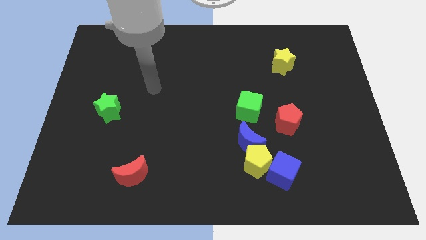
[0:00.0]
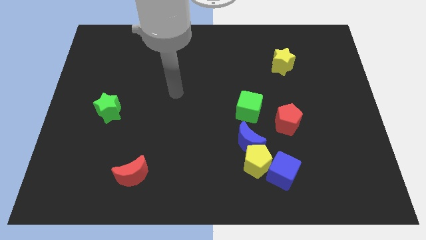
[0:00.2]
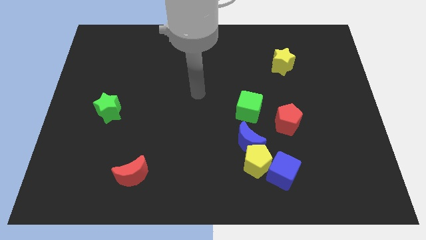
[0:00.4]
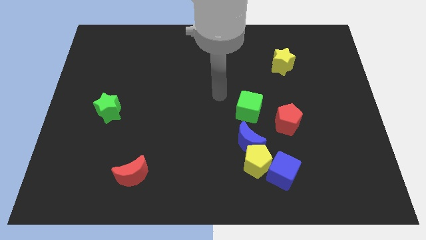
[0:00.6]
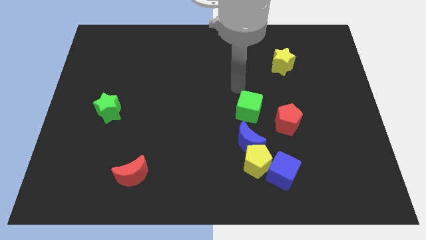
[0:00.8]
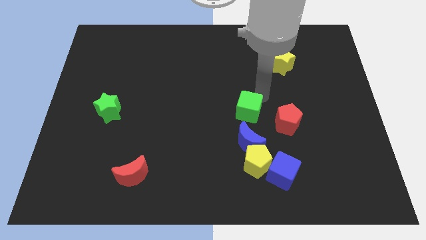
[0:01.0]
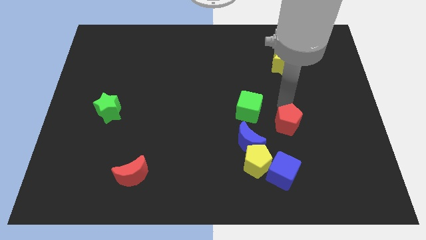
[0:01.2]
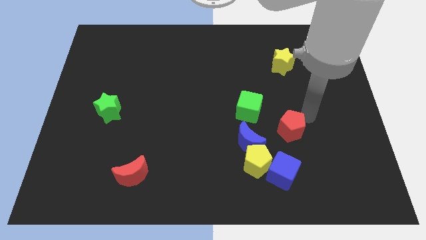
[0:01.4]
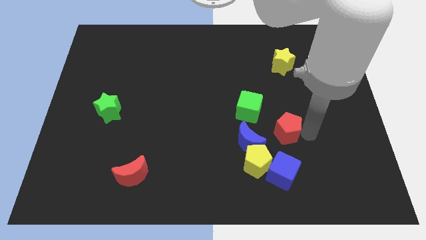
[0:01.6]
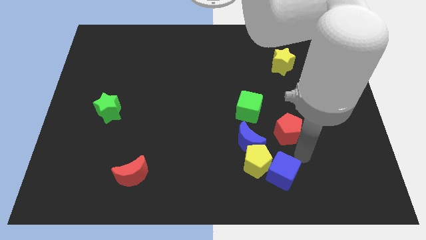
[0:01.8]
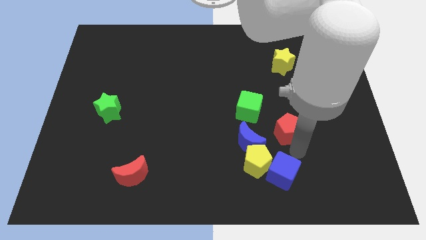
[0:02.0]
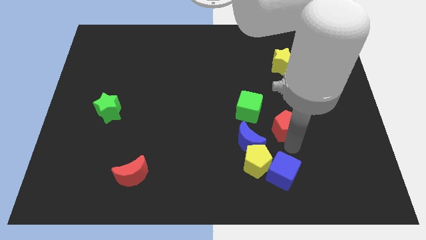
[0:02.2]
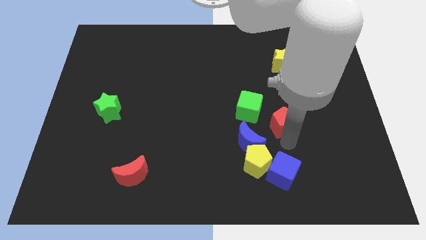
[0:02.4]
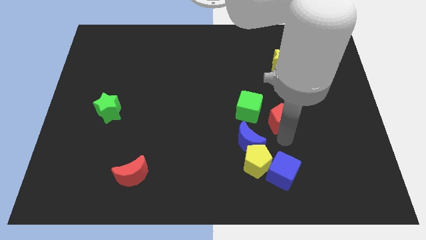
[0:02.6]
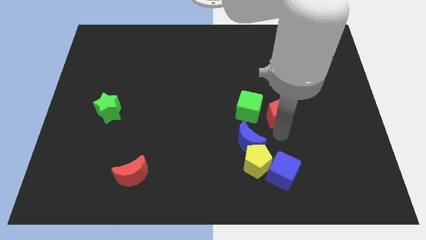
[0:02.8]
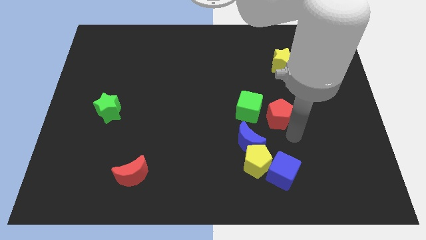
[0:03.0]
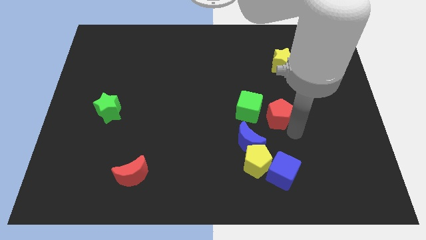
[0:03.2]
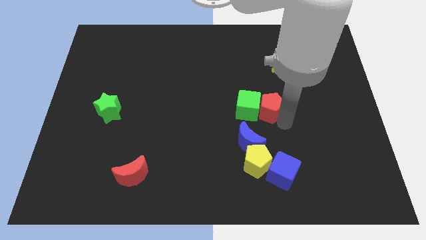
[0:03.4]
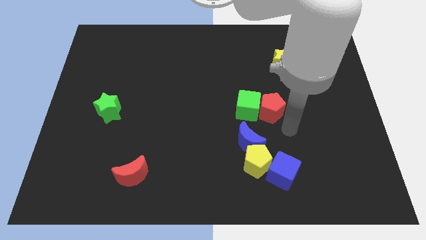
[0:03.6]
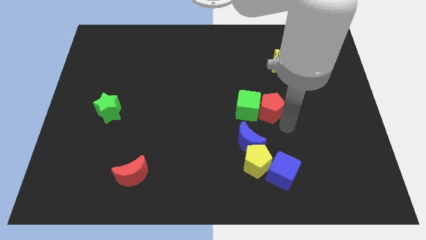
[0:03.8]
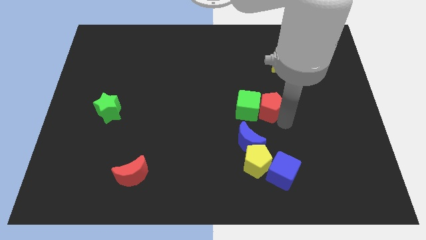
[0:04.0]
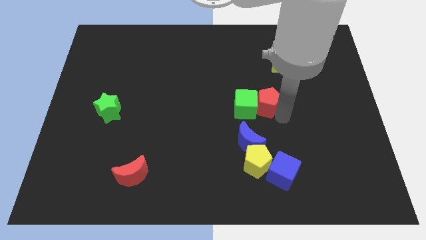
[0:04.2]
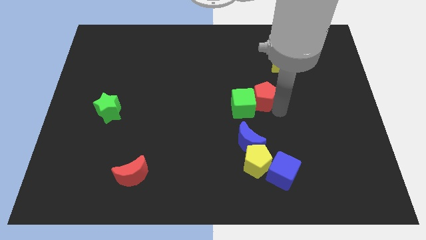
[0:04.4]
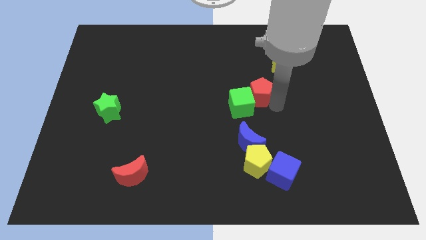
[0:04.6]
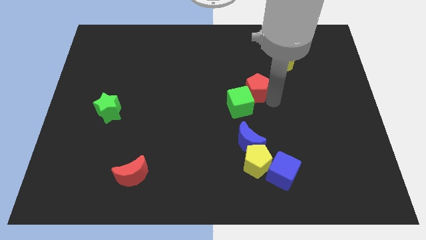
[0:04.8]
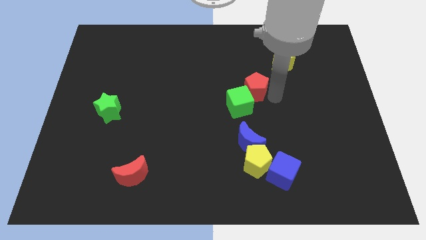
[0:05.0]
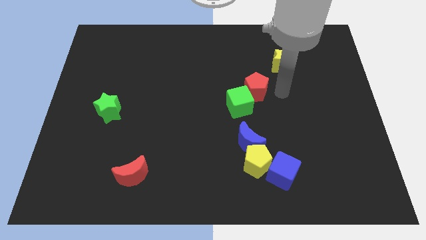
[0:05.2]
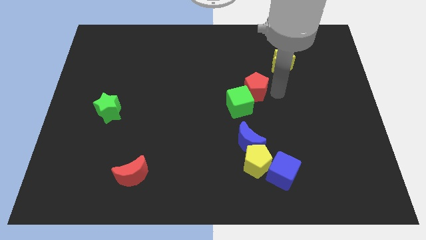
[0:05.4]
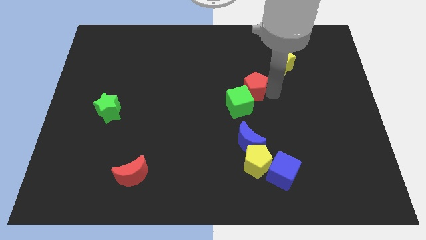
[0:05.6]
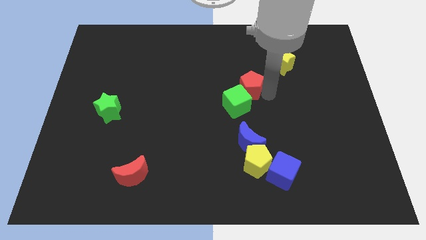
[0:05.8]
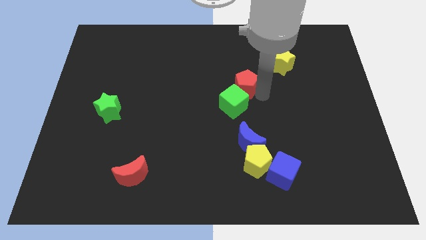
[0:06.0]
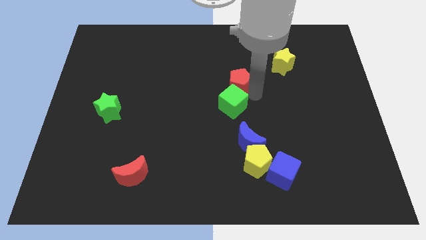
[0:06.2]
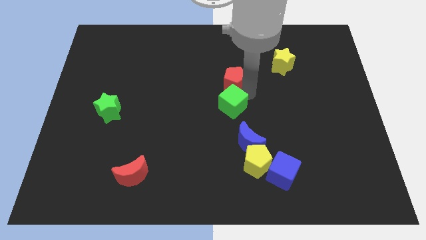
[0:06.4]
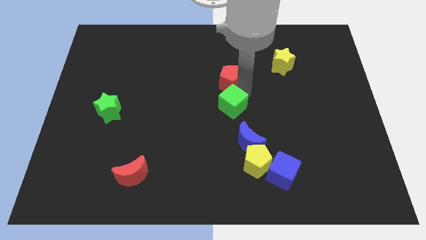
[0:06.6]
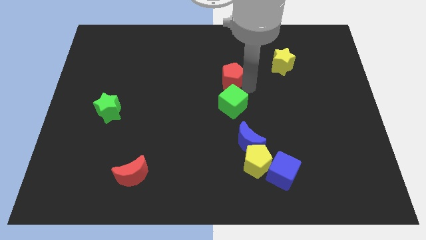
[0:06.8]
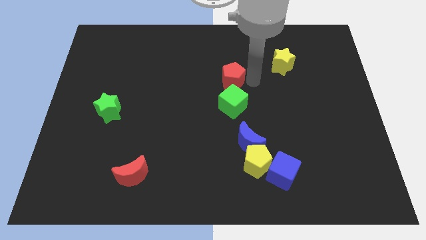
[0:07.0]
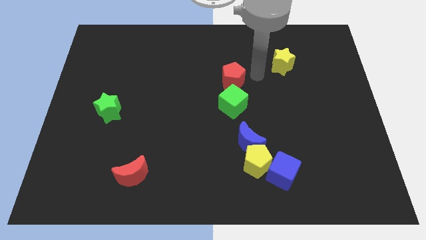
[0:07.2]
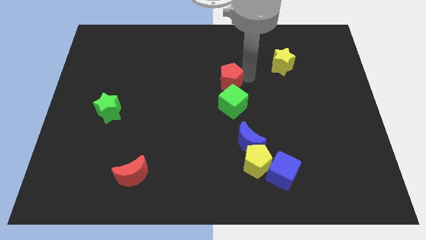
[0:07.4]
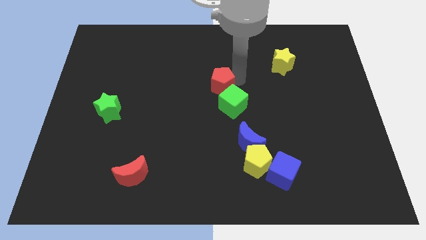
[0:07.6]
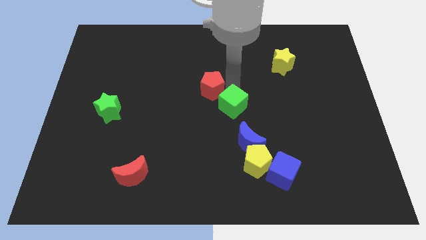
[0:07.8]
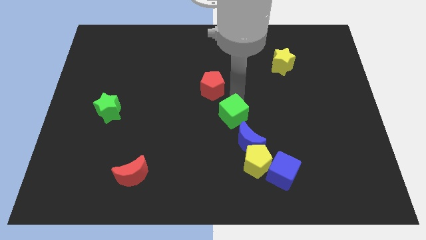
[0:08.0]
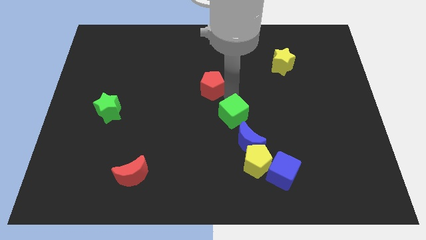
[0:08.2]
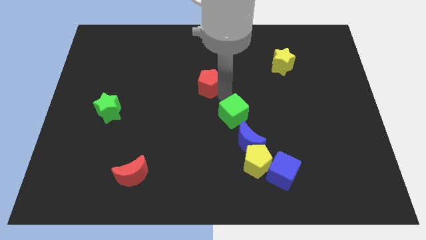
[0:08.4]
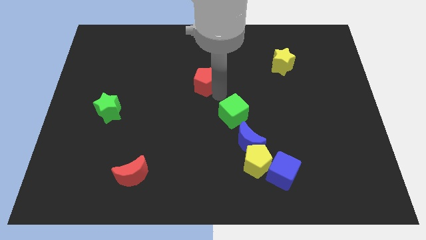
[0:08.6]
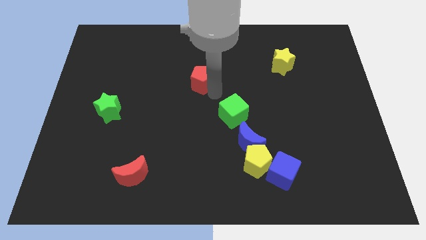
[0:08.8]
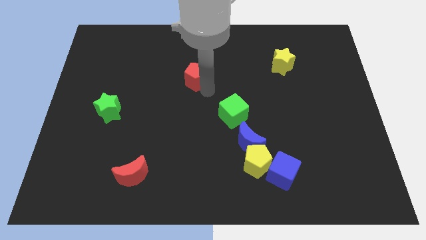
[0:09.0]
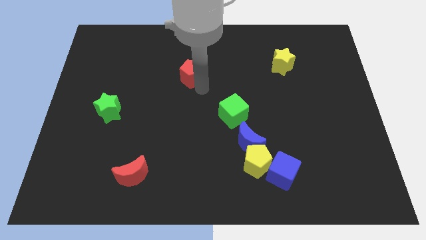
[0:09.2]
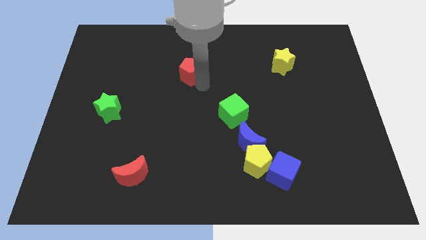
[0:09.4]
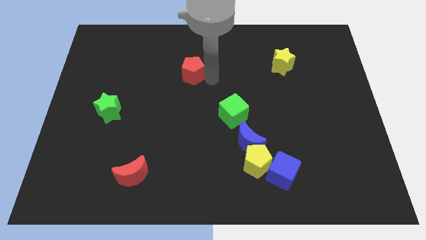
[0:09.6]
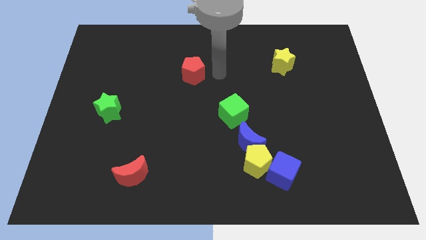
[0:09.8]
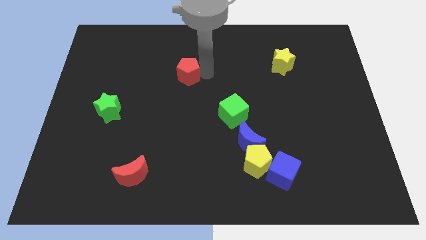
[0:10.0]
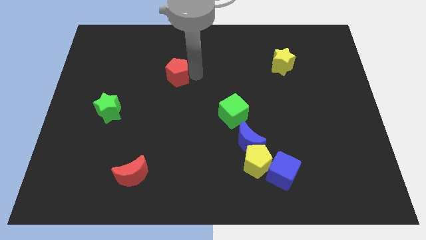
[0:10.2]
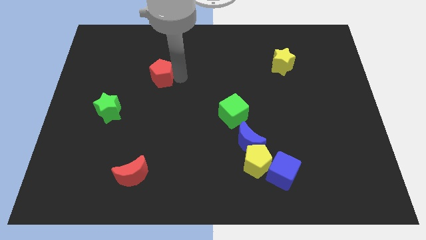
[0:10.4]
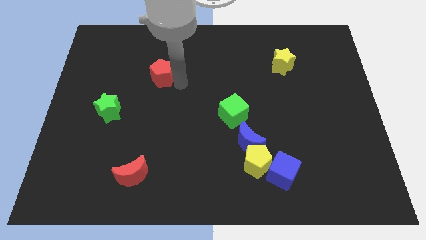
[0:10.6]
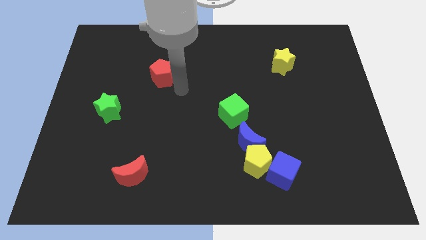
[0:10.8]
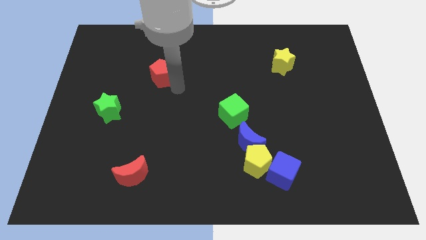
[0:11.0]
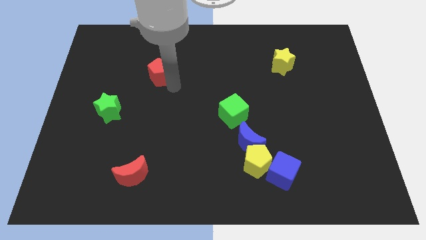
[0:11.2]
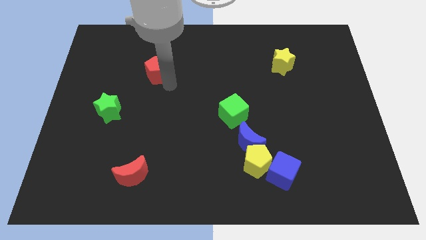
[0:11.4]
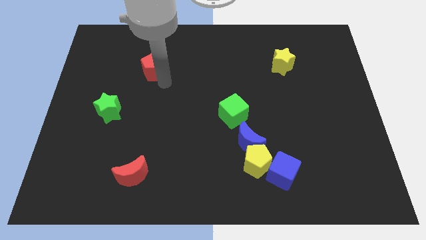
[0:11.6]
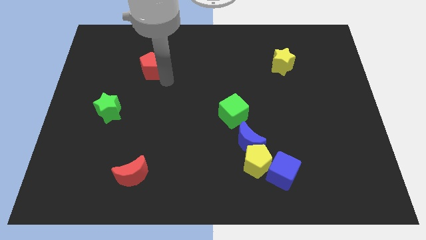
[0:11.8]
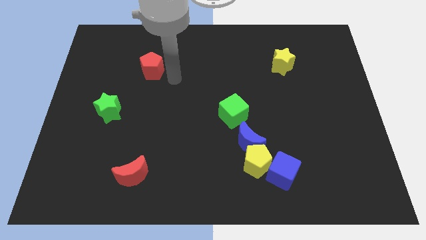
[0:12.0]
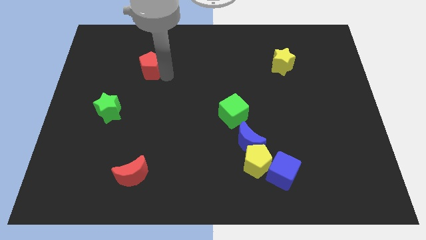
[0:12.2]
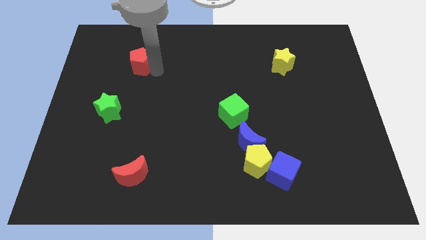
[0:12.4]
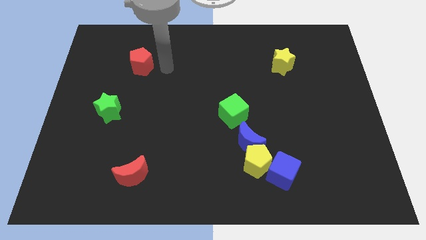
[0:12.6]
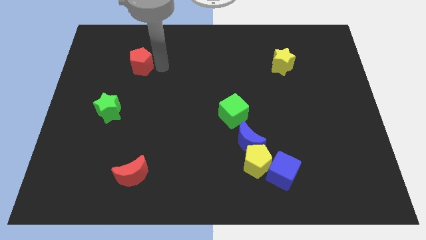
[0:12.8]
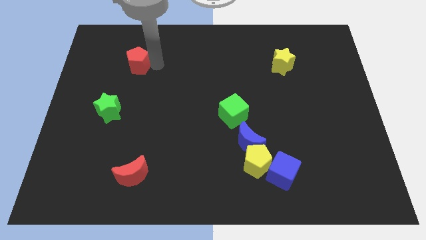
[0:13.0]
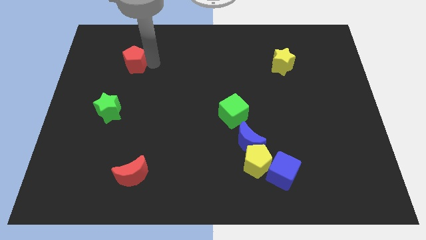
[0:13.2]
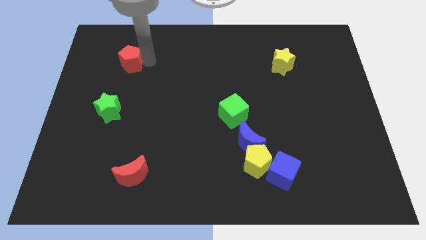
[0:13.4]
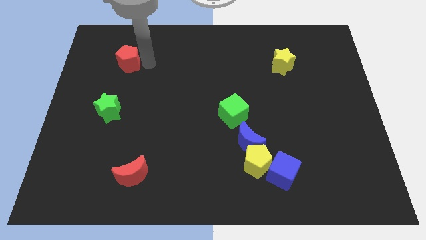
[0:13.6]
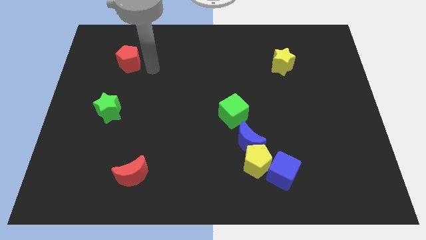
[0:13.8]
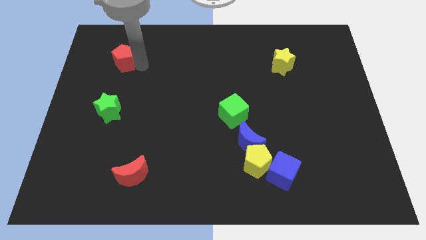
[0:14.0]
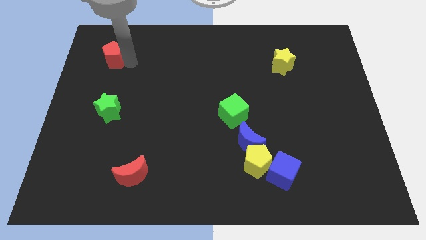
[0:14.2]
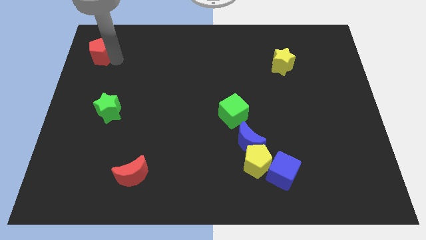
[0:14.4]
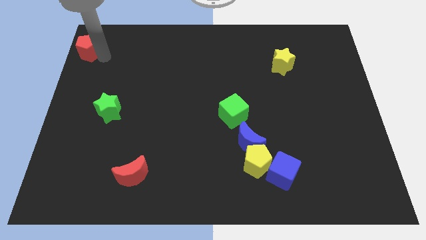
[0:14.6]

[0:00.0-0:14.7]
push the red pentagon to the top left
